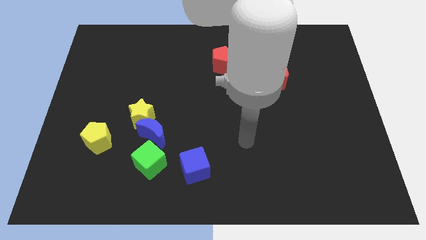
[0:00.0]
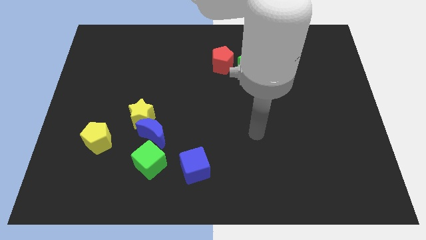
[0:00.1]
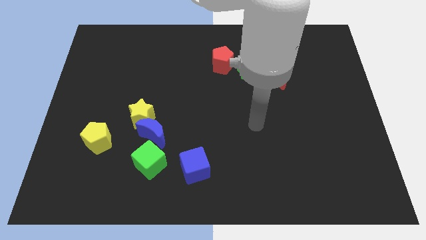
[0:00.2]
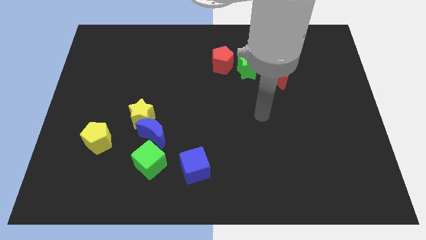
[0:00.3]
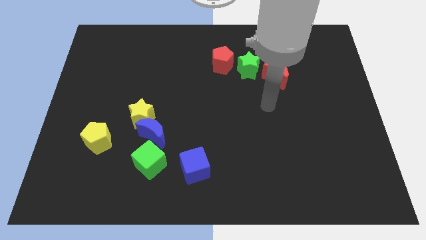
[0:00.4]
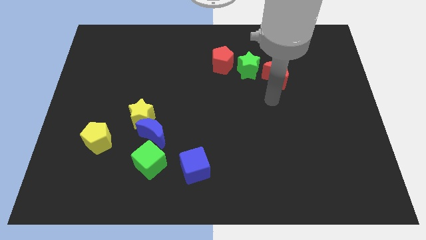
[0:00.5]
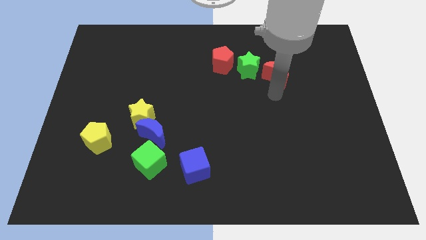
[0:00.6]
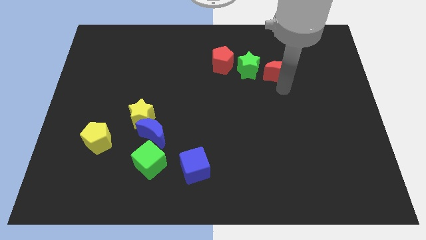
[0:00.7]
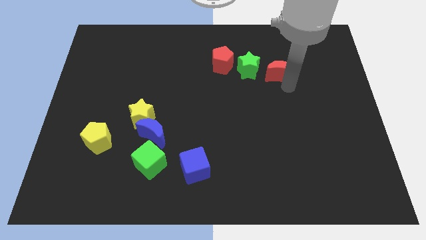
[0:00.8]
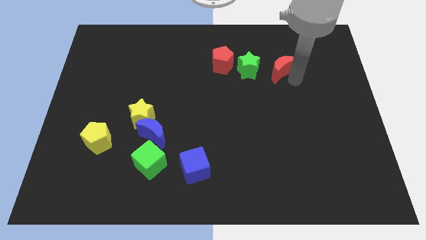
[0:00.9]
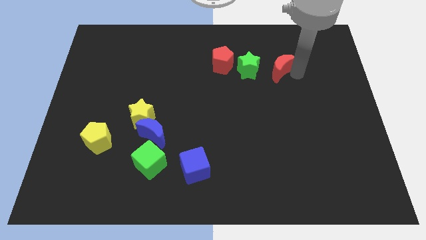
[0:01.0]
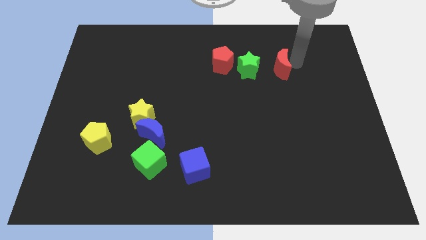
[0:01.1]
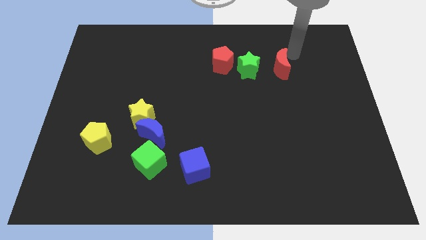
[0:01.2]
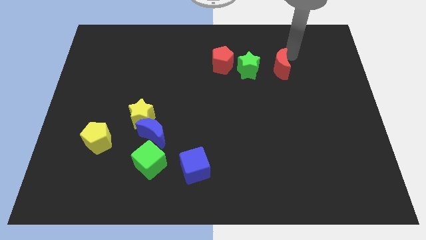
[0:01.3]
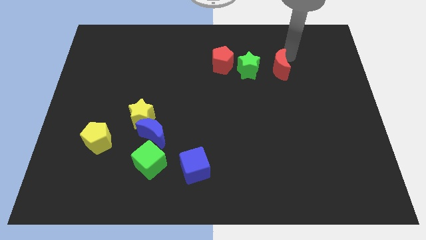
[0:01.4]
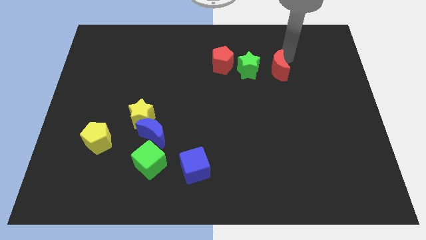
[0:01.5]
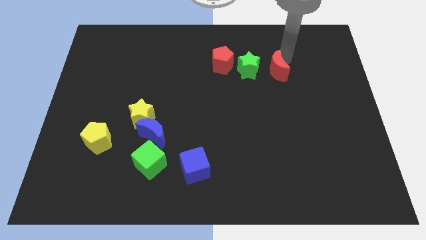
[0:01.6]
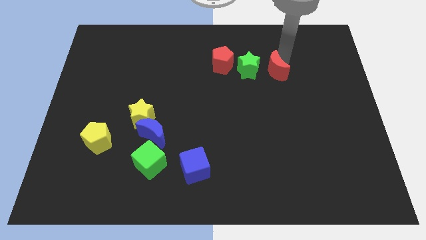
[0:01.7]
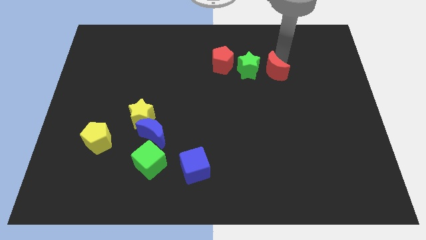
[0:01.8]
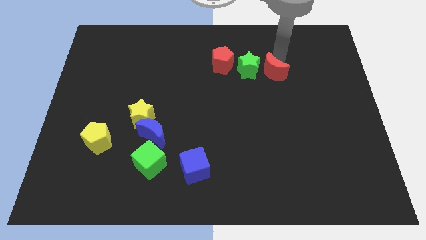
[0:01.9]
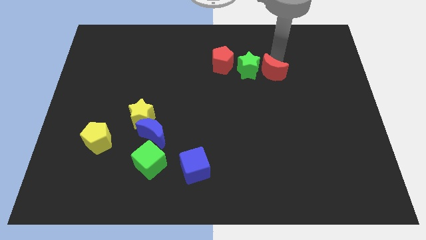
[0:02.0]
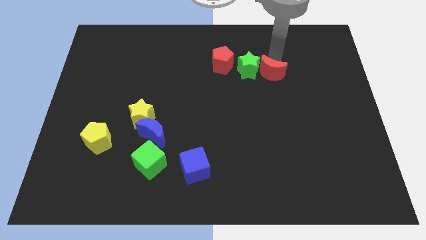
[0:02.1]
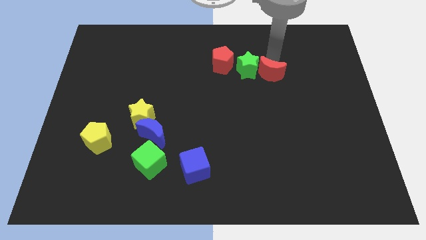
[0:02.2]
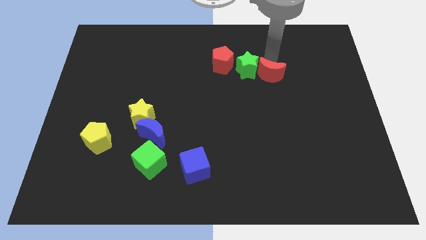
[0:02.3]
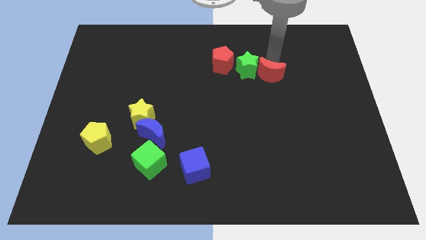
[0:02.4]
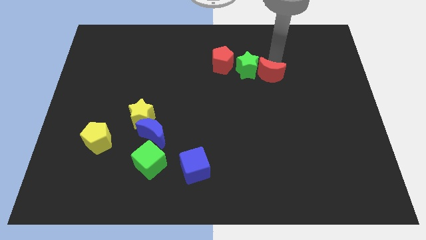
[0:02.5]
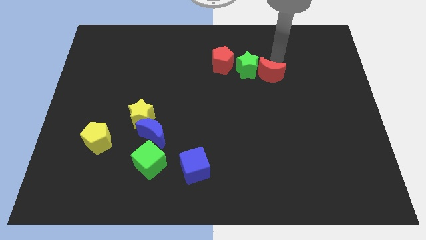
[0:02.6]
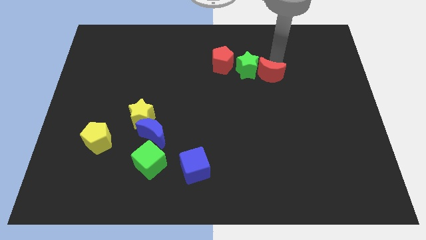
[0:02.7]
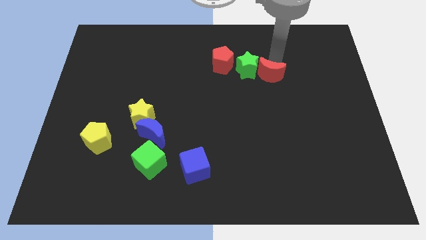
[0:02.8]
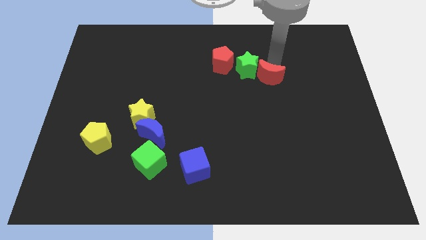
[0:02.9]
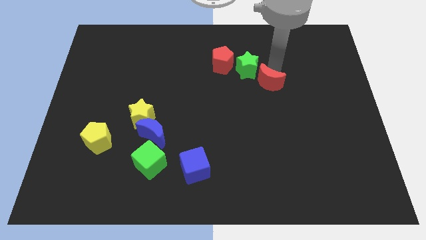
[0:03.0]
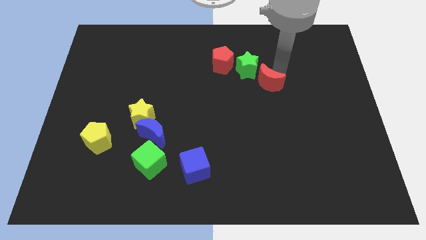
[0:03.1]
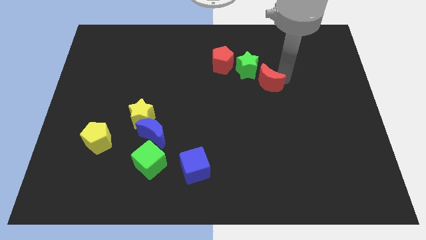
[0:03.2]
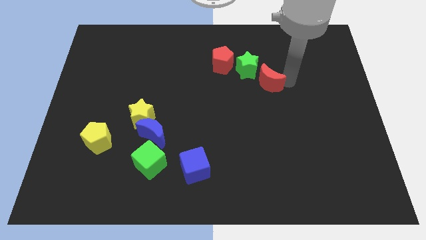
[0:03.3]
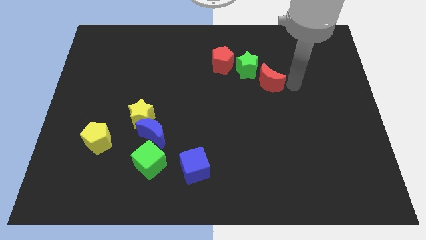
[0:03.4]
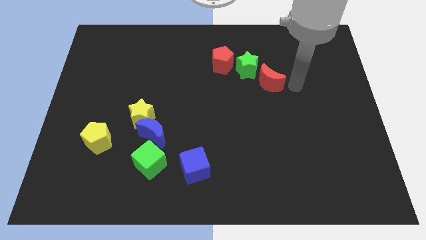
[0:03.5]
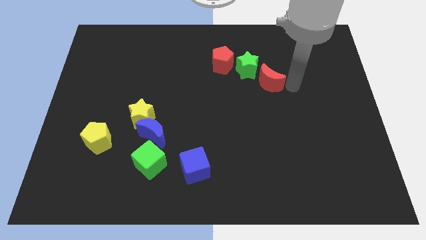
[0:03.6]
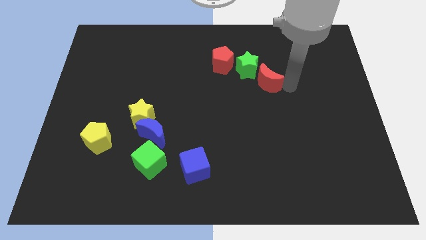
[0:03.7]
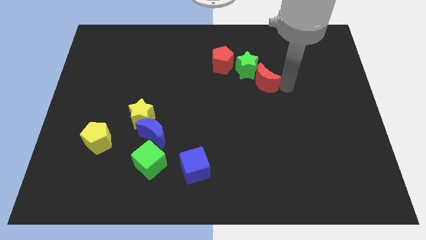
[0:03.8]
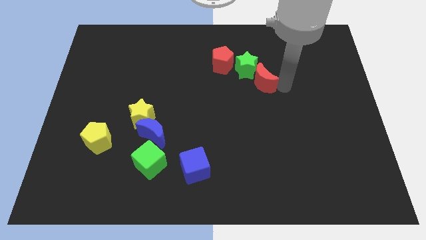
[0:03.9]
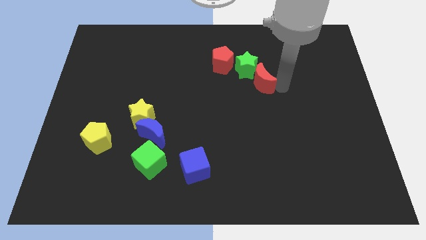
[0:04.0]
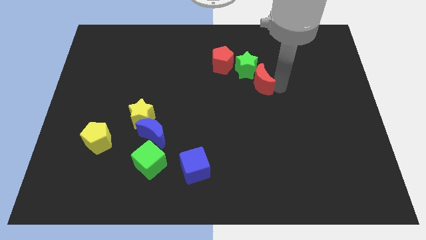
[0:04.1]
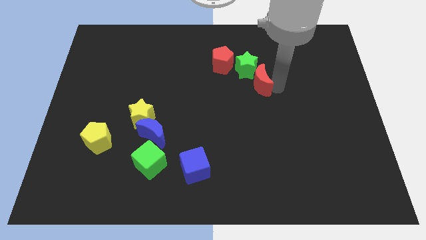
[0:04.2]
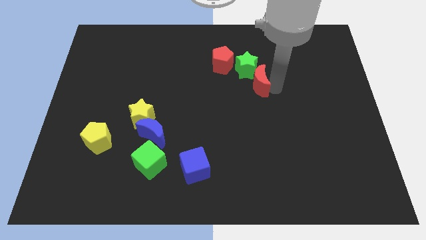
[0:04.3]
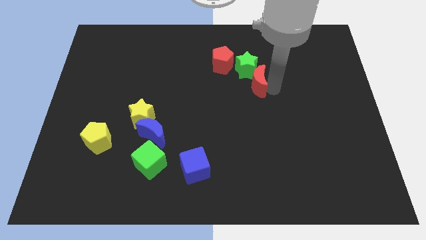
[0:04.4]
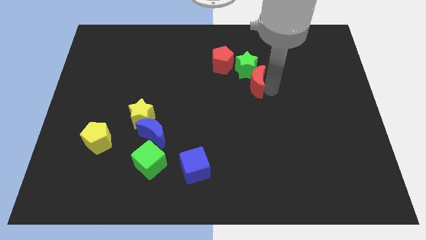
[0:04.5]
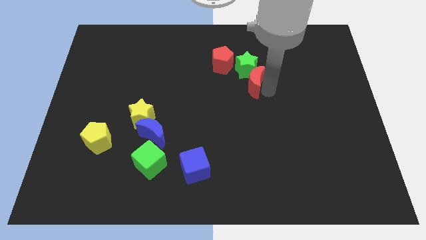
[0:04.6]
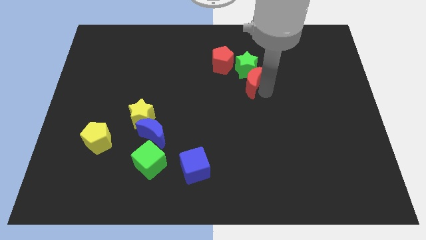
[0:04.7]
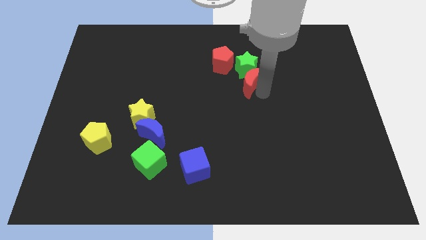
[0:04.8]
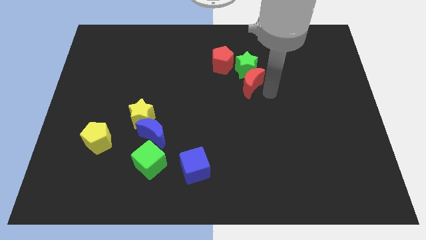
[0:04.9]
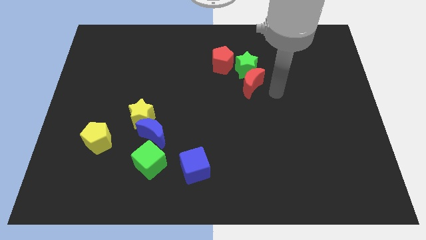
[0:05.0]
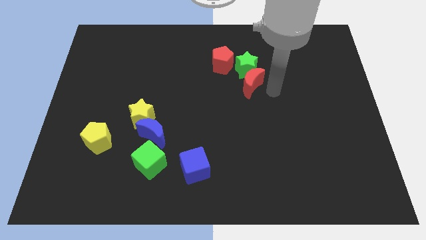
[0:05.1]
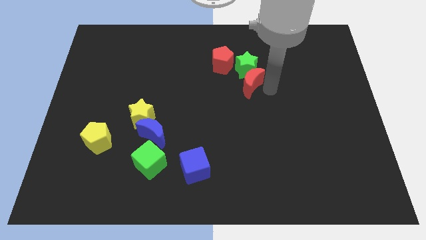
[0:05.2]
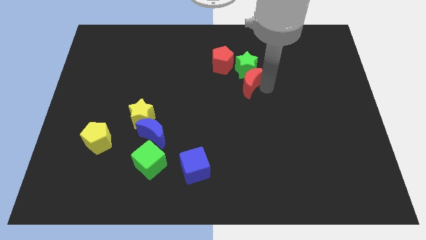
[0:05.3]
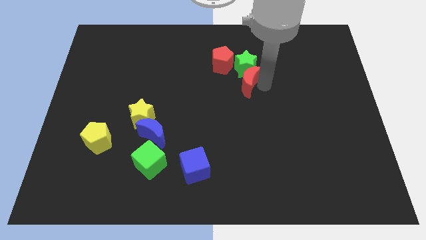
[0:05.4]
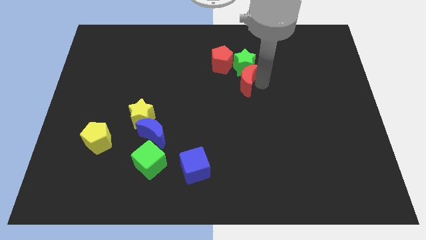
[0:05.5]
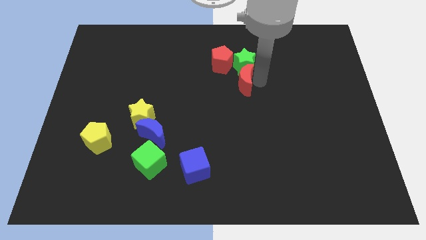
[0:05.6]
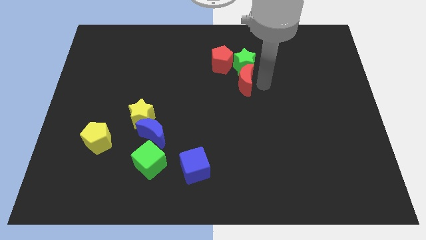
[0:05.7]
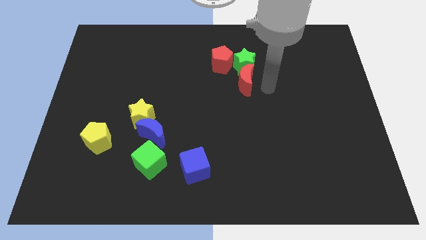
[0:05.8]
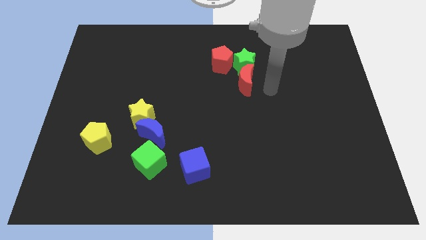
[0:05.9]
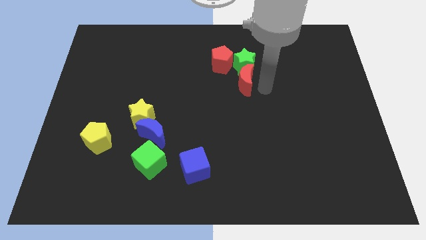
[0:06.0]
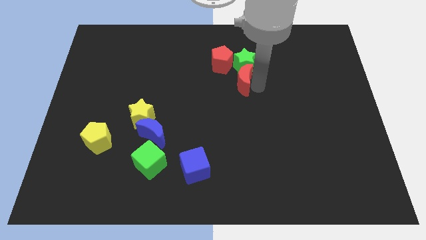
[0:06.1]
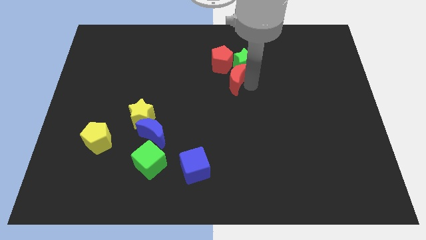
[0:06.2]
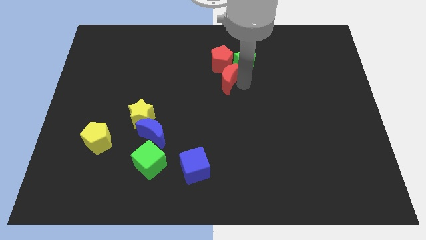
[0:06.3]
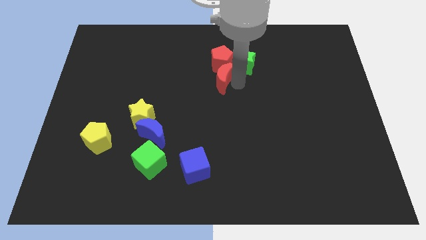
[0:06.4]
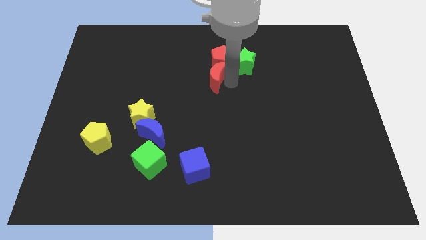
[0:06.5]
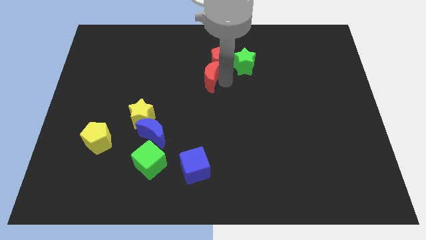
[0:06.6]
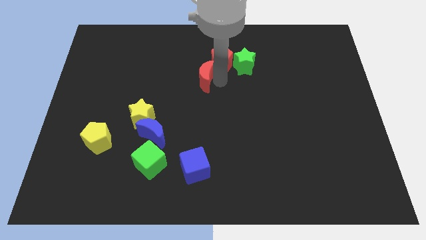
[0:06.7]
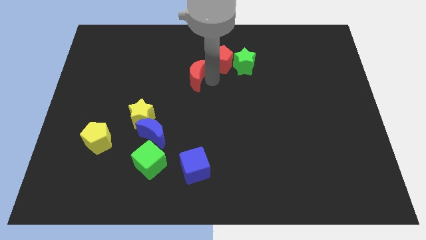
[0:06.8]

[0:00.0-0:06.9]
push the red moon left

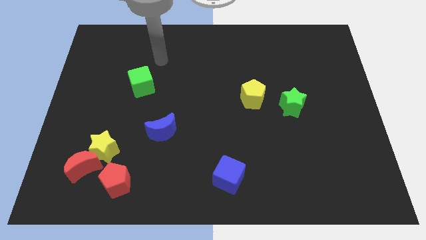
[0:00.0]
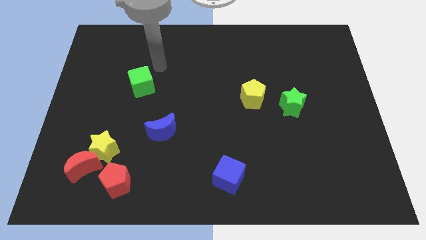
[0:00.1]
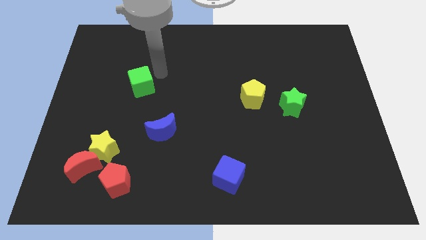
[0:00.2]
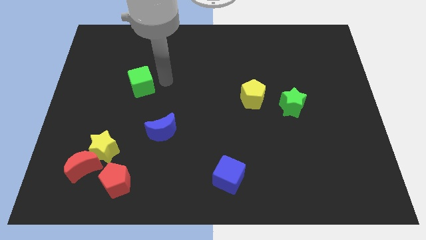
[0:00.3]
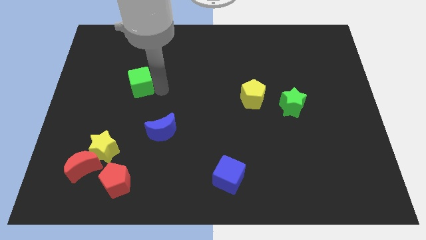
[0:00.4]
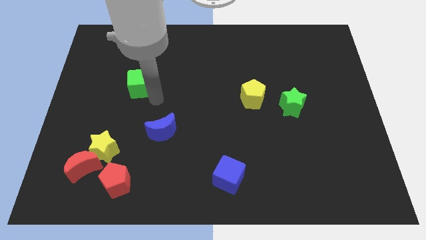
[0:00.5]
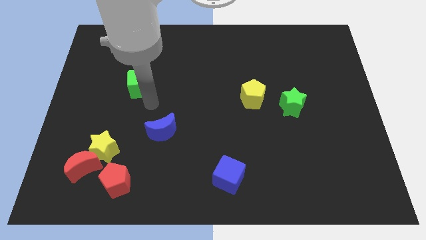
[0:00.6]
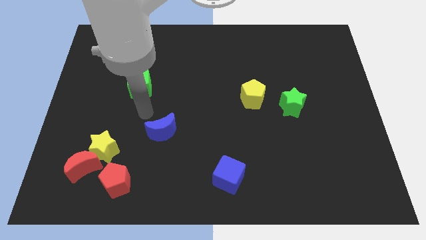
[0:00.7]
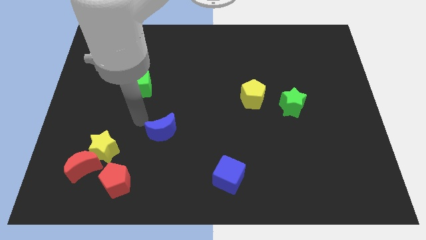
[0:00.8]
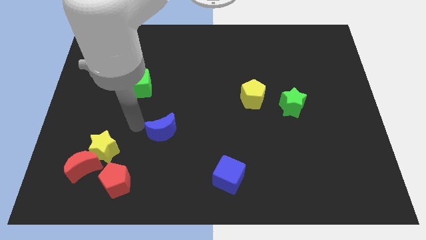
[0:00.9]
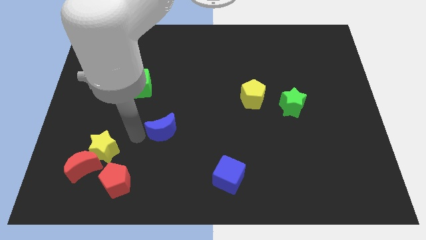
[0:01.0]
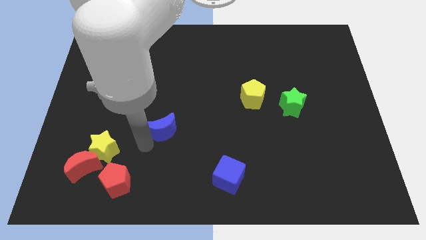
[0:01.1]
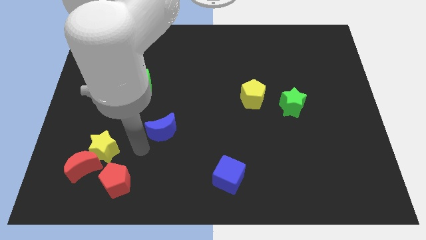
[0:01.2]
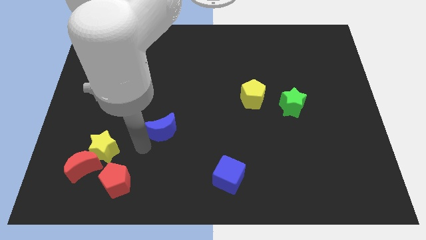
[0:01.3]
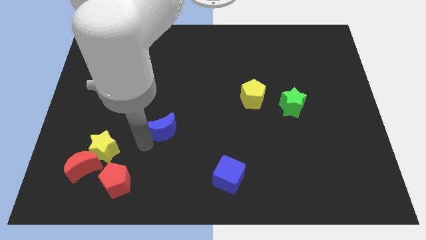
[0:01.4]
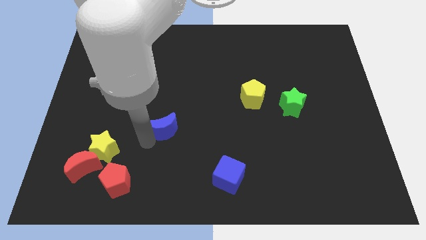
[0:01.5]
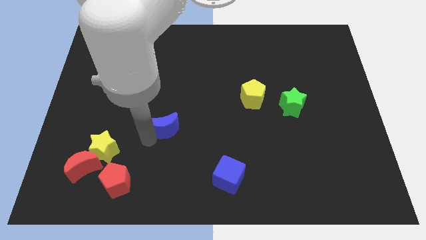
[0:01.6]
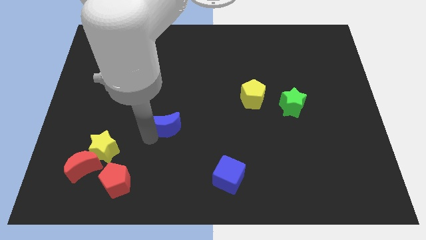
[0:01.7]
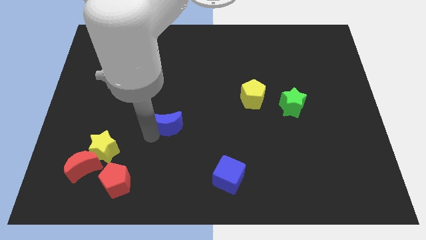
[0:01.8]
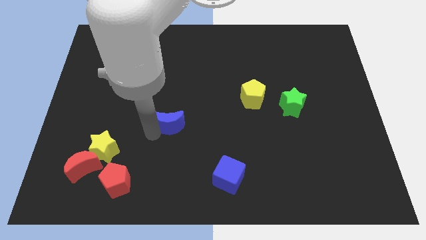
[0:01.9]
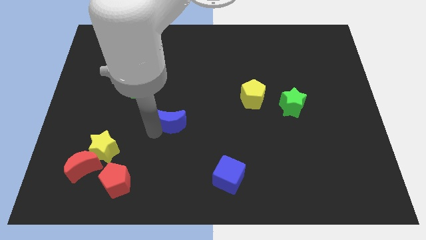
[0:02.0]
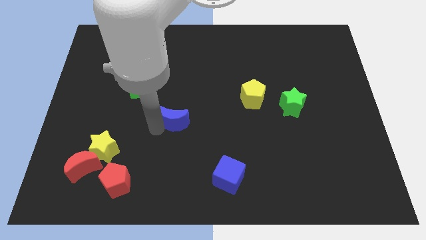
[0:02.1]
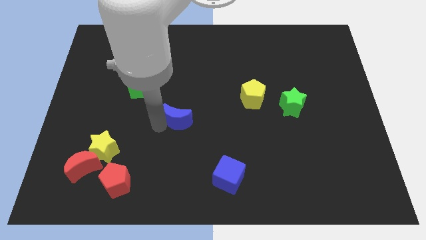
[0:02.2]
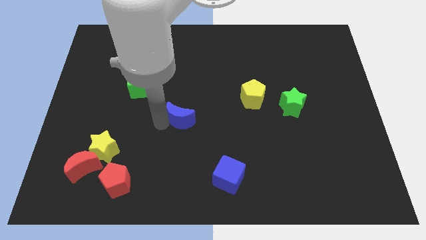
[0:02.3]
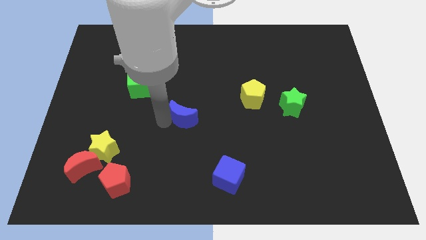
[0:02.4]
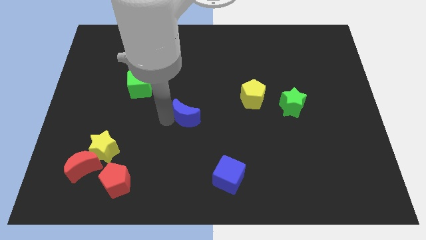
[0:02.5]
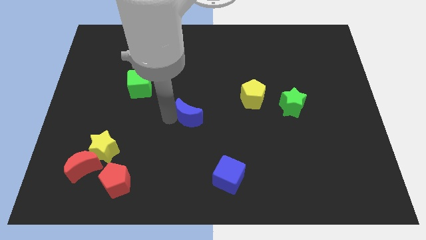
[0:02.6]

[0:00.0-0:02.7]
move the blue moon somewhat upwards and then to the right
